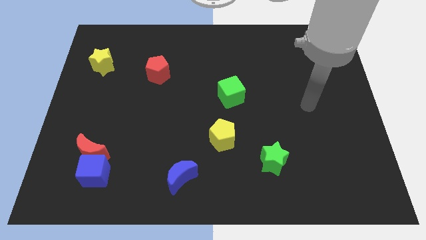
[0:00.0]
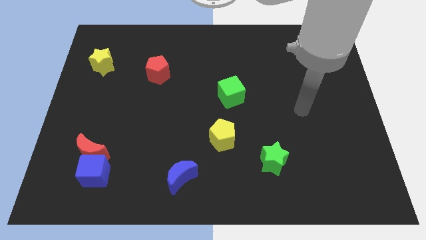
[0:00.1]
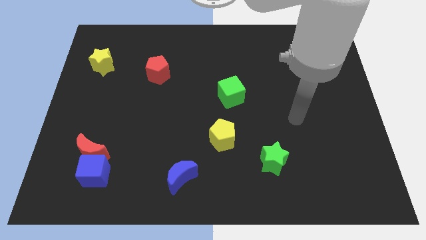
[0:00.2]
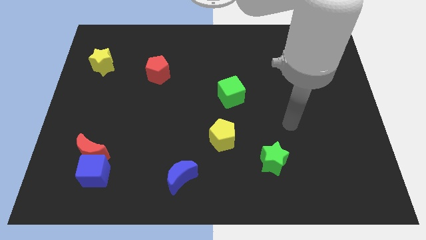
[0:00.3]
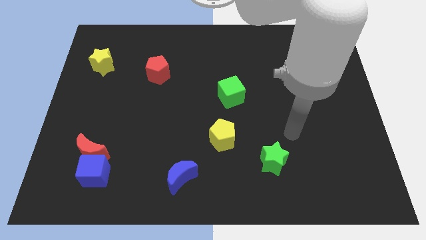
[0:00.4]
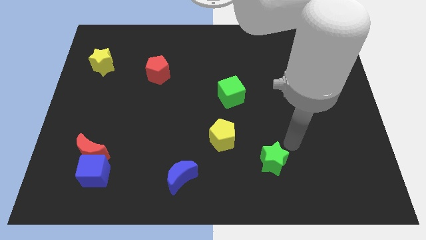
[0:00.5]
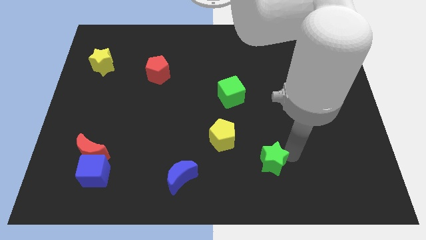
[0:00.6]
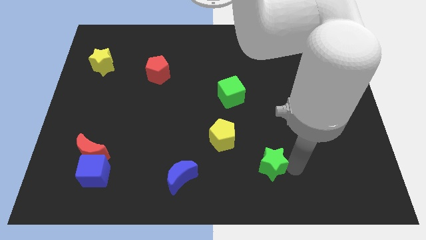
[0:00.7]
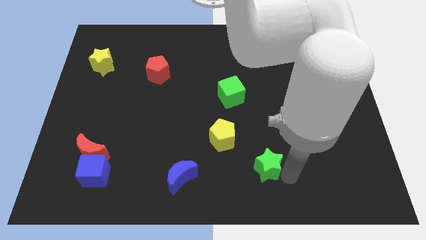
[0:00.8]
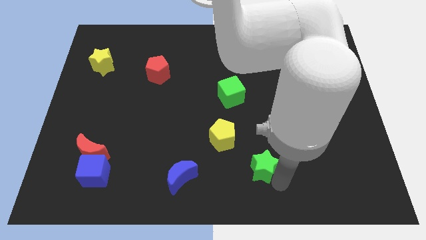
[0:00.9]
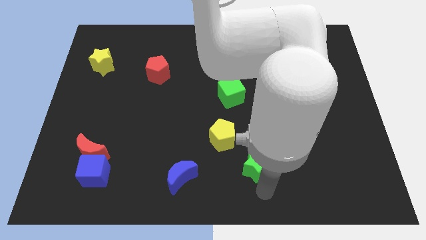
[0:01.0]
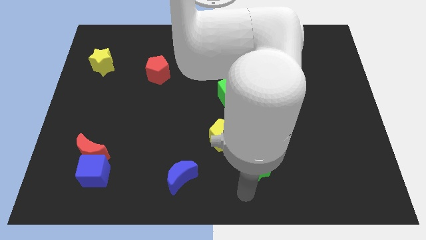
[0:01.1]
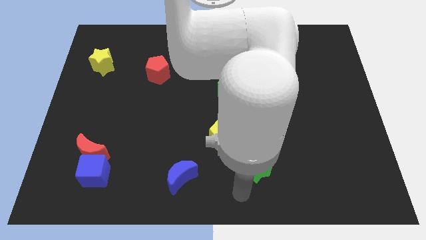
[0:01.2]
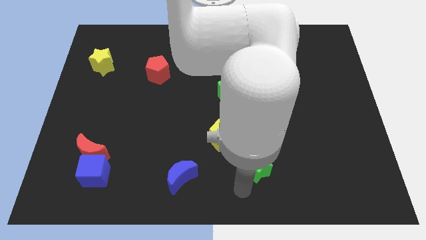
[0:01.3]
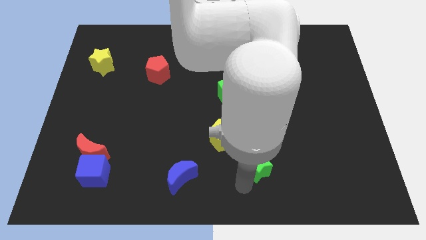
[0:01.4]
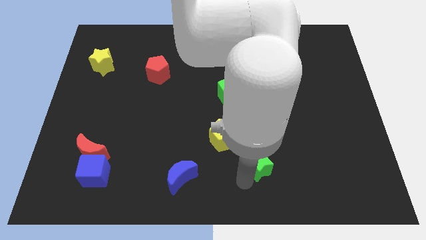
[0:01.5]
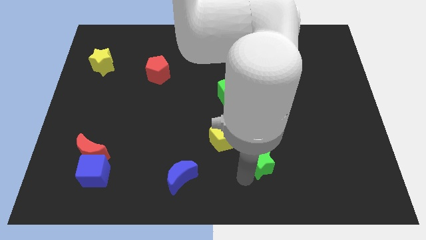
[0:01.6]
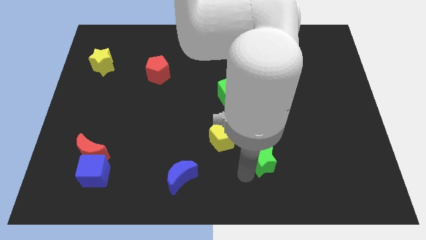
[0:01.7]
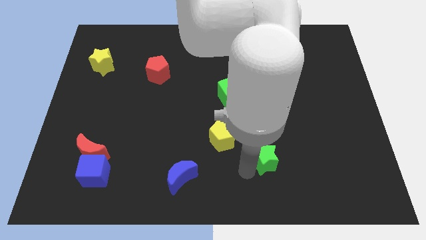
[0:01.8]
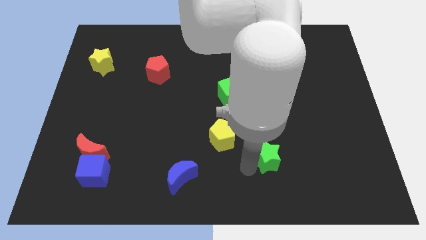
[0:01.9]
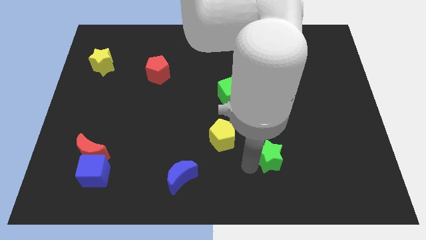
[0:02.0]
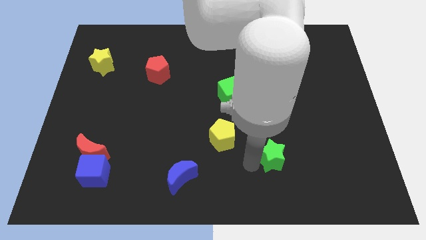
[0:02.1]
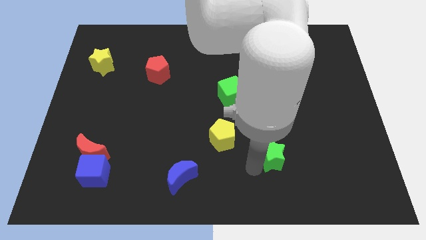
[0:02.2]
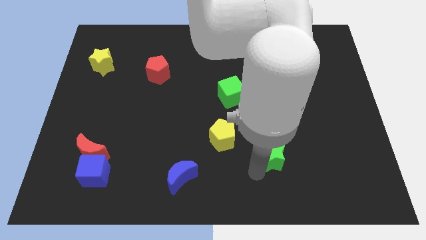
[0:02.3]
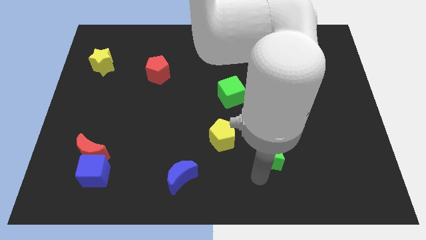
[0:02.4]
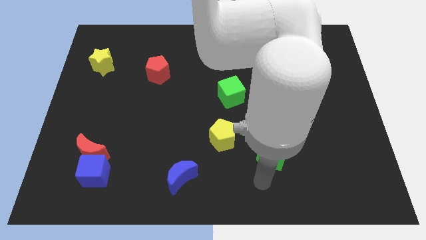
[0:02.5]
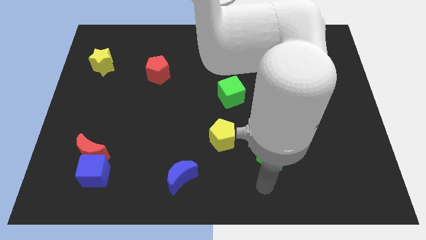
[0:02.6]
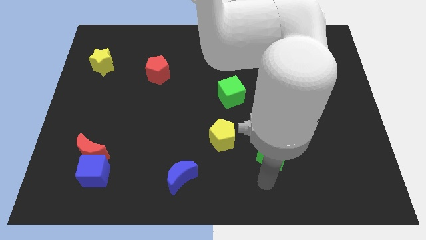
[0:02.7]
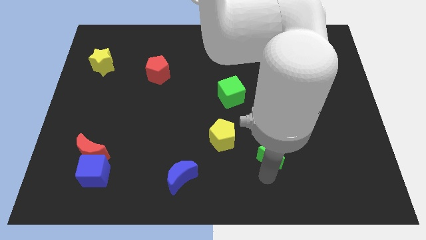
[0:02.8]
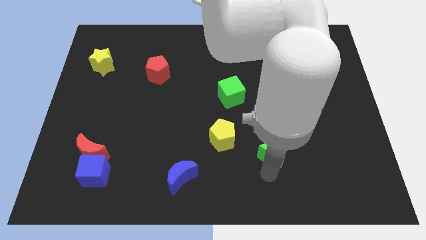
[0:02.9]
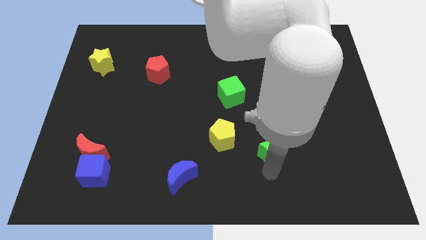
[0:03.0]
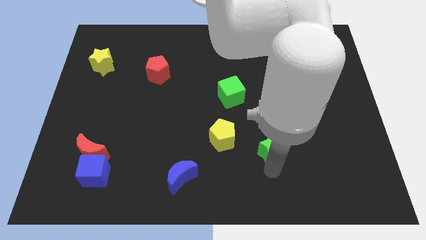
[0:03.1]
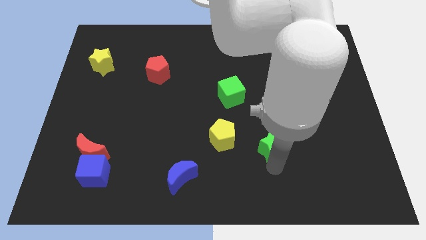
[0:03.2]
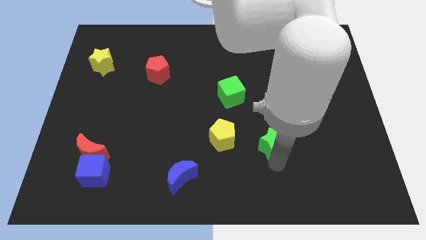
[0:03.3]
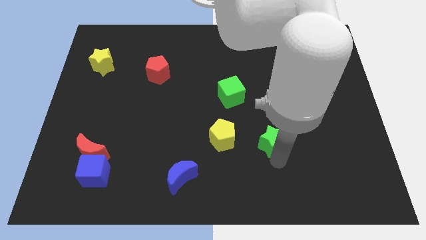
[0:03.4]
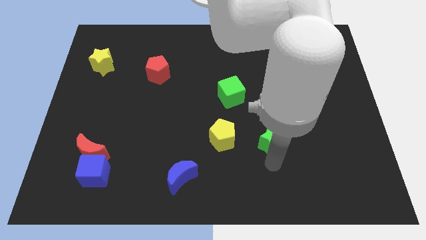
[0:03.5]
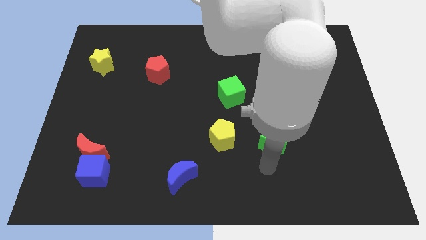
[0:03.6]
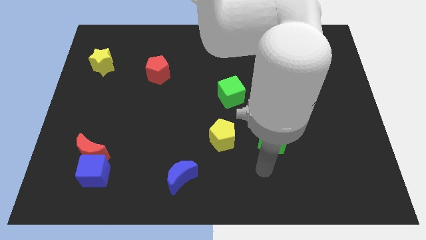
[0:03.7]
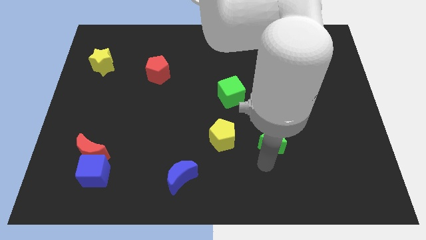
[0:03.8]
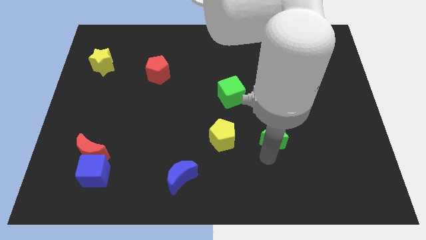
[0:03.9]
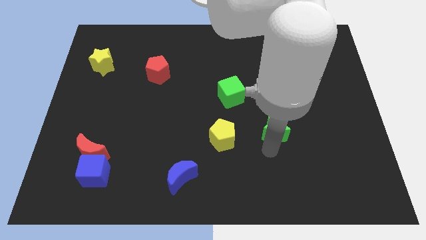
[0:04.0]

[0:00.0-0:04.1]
slide the green star somewhat up

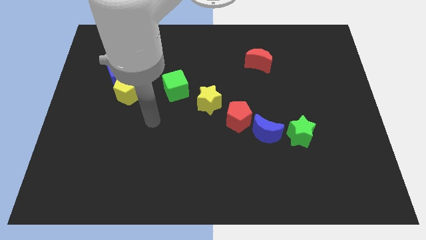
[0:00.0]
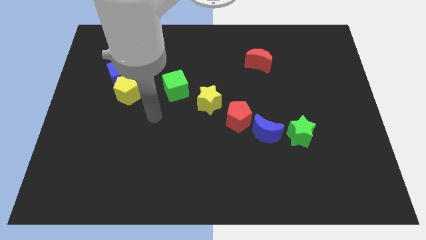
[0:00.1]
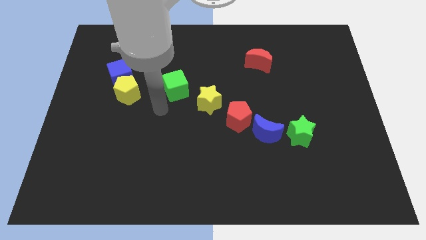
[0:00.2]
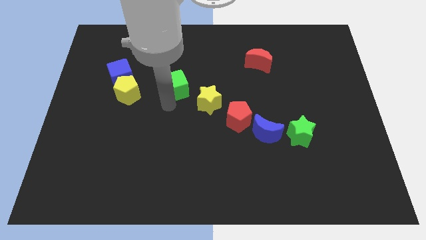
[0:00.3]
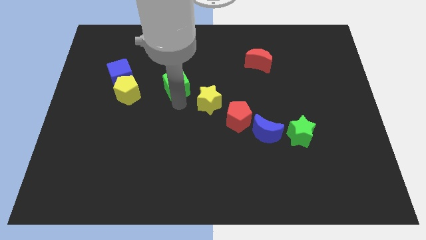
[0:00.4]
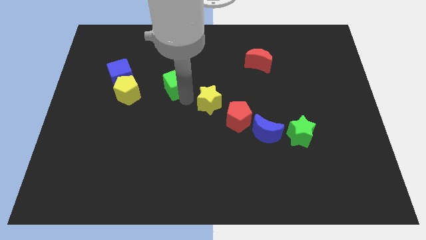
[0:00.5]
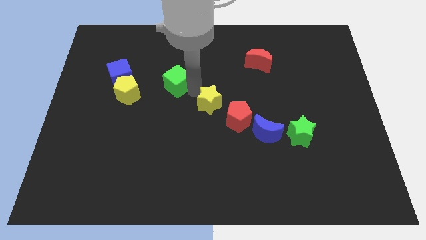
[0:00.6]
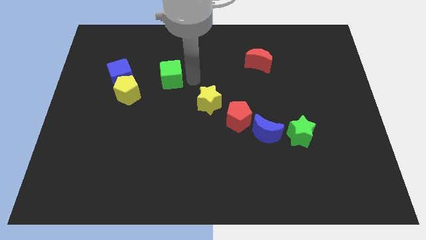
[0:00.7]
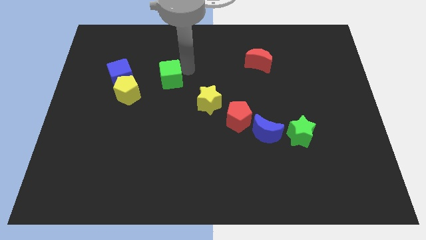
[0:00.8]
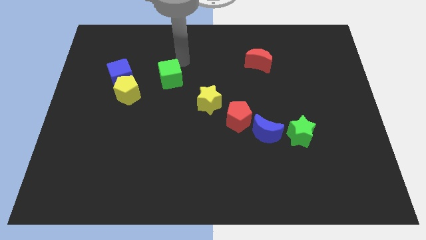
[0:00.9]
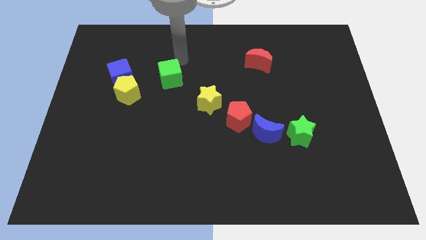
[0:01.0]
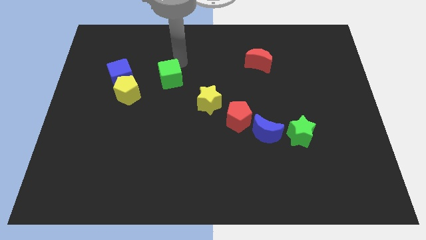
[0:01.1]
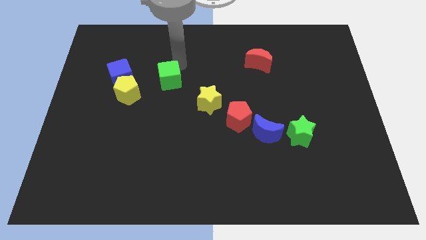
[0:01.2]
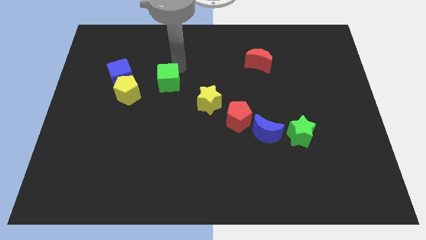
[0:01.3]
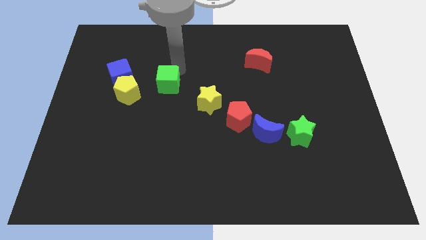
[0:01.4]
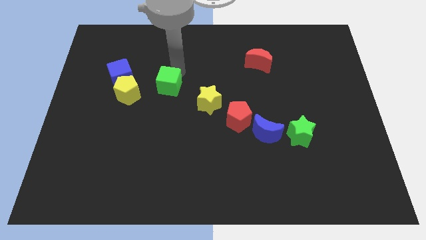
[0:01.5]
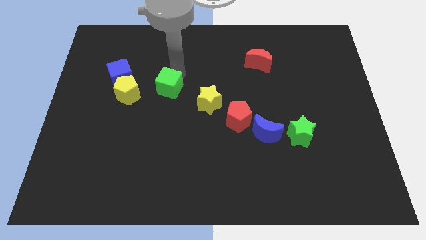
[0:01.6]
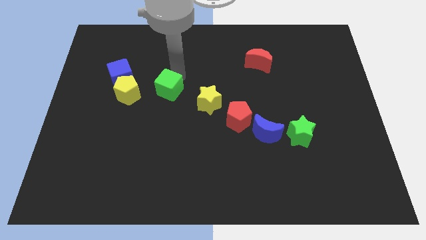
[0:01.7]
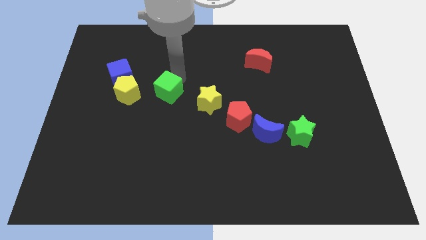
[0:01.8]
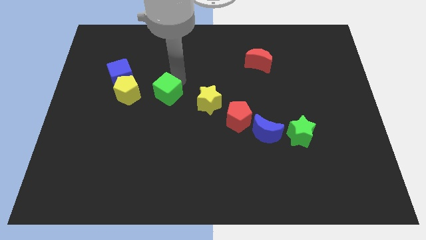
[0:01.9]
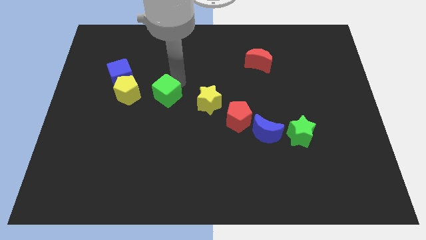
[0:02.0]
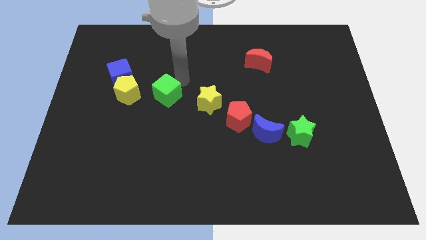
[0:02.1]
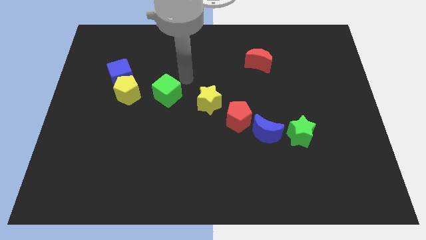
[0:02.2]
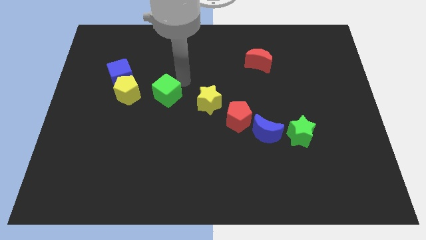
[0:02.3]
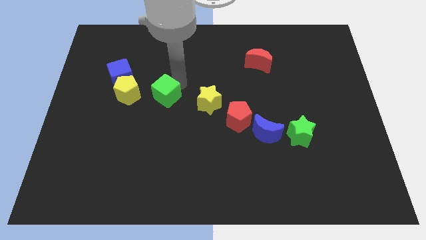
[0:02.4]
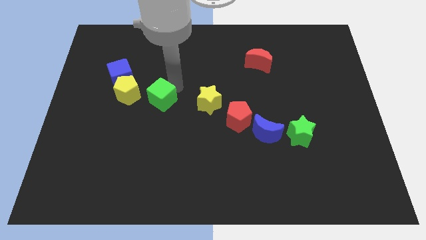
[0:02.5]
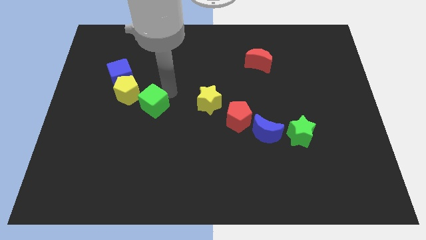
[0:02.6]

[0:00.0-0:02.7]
push the green cube a little bit down and then left

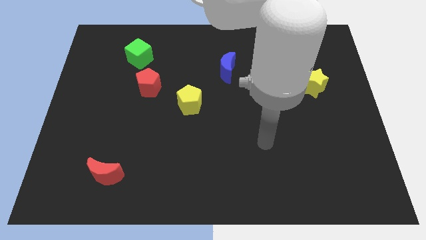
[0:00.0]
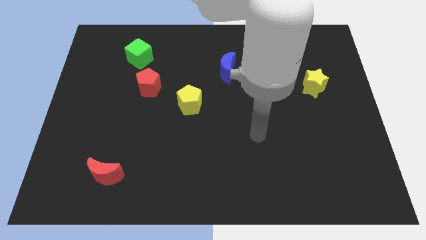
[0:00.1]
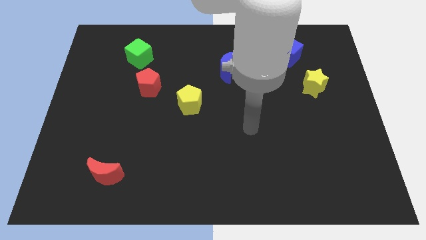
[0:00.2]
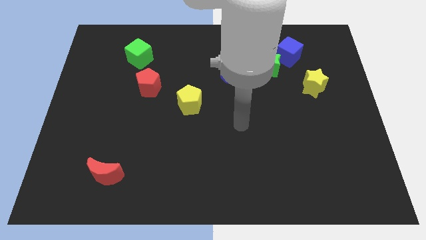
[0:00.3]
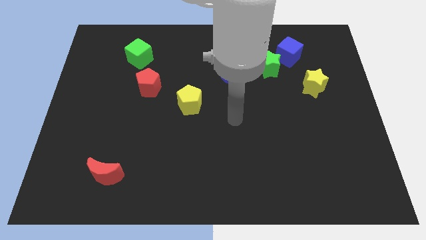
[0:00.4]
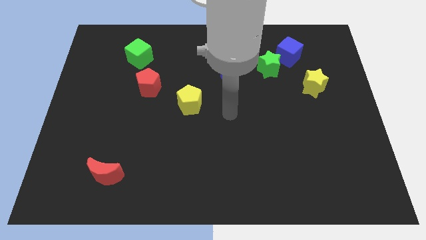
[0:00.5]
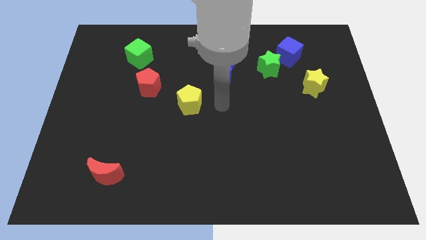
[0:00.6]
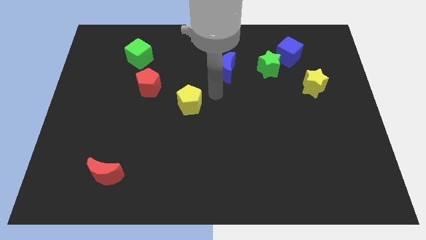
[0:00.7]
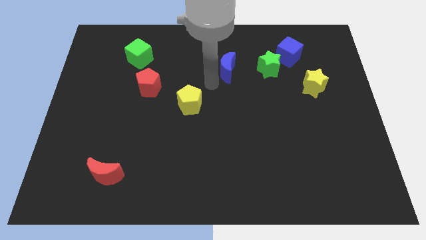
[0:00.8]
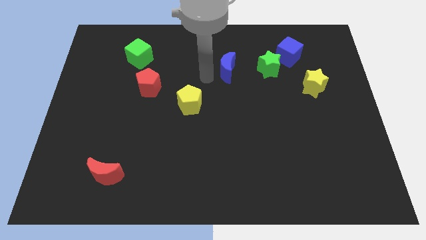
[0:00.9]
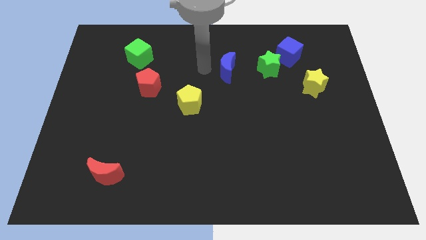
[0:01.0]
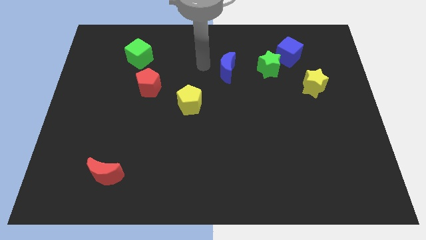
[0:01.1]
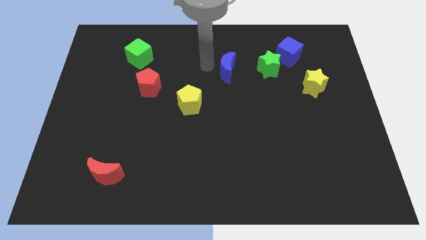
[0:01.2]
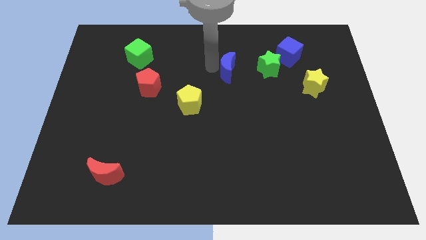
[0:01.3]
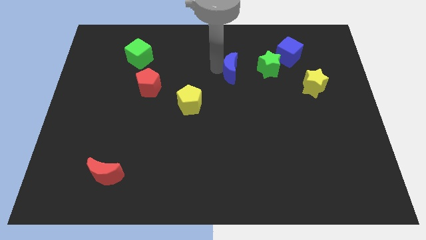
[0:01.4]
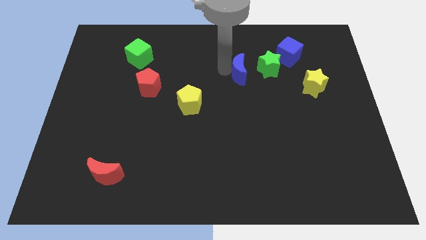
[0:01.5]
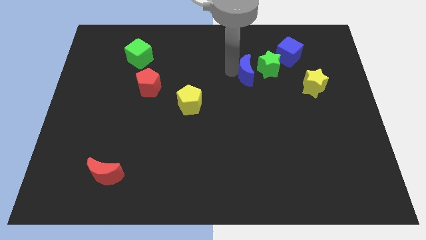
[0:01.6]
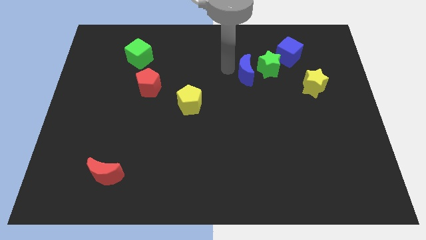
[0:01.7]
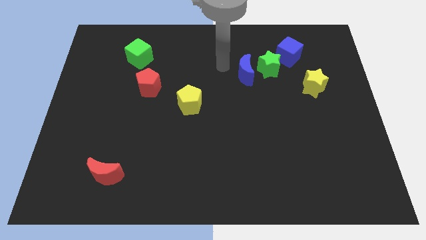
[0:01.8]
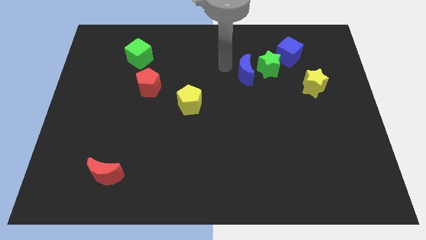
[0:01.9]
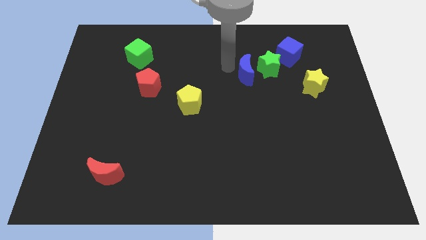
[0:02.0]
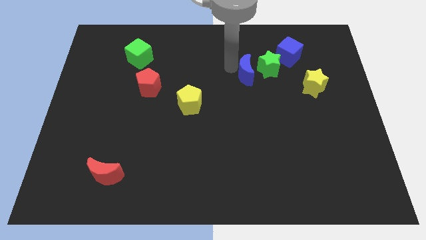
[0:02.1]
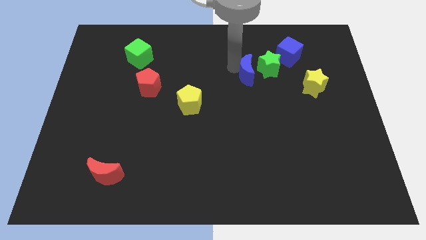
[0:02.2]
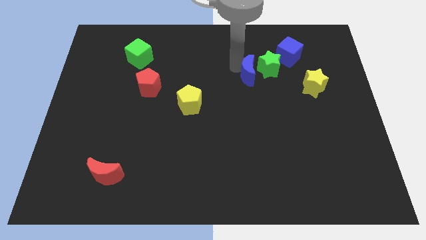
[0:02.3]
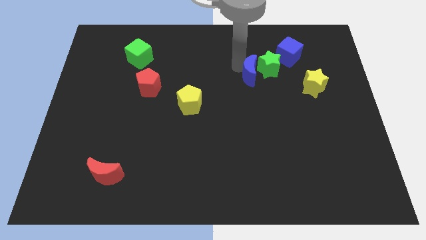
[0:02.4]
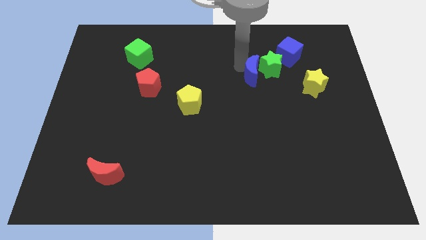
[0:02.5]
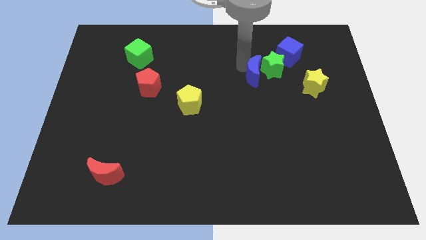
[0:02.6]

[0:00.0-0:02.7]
move the blue moon right a little
